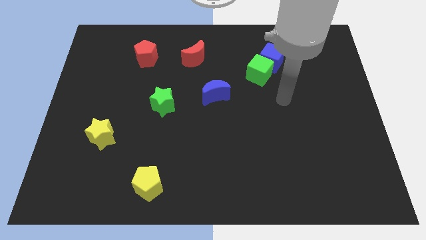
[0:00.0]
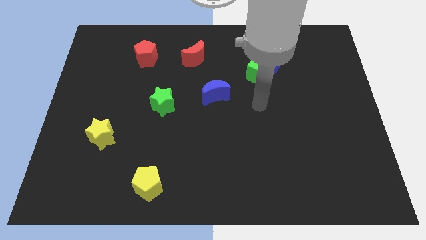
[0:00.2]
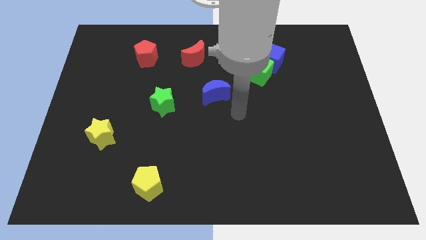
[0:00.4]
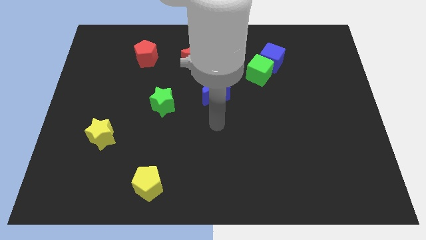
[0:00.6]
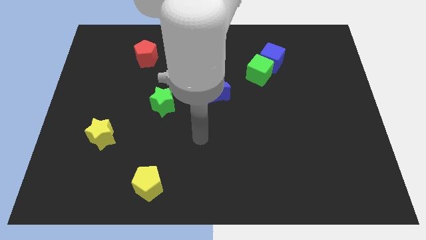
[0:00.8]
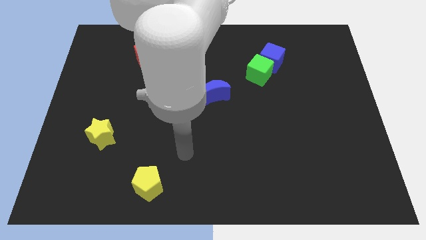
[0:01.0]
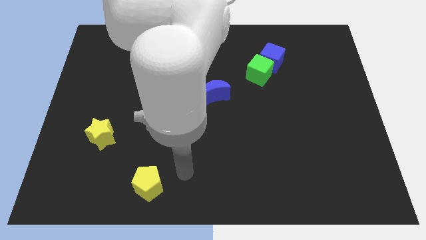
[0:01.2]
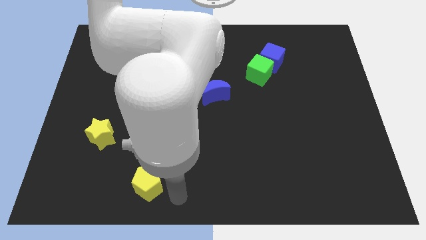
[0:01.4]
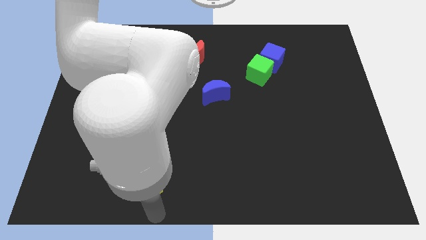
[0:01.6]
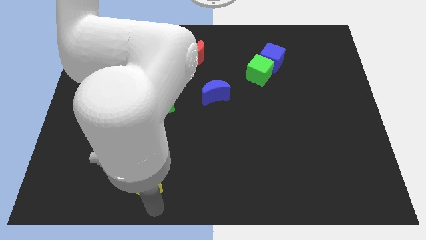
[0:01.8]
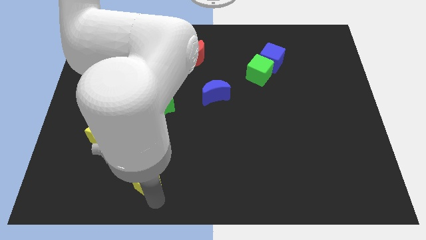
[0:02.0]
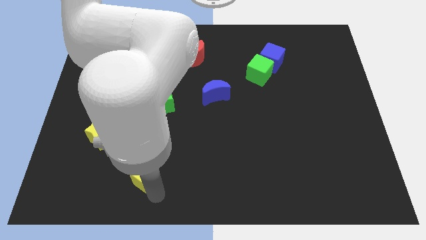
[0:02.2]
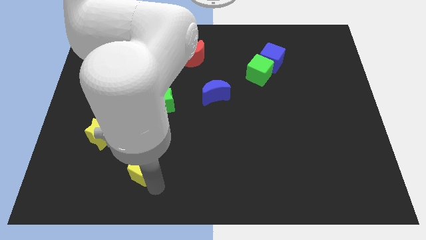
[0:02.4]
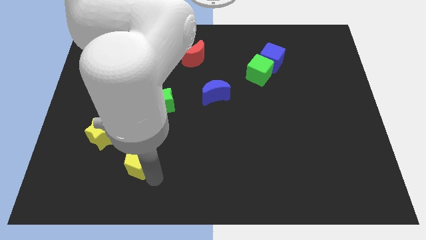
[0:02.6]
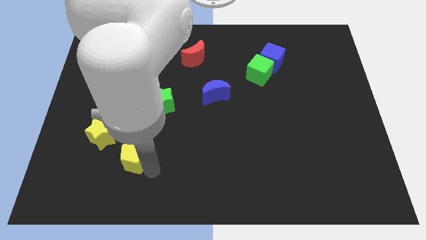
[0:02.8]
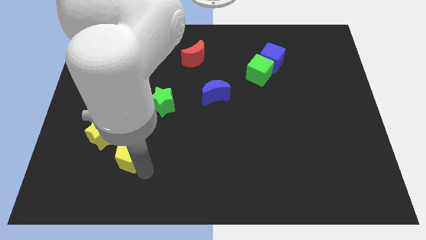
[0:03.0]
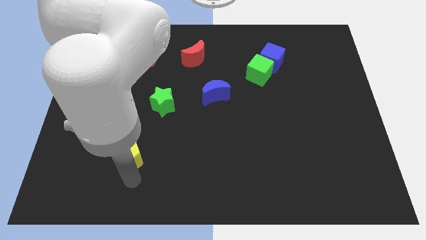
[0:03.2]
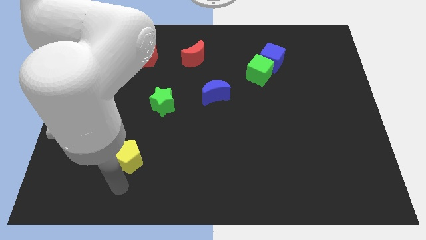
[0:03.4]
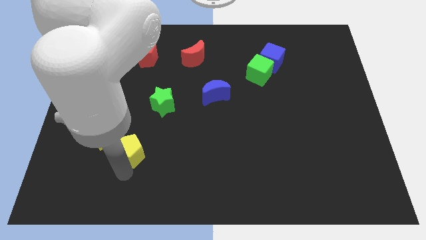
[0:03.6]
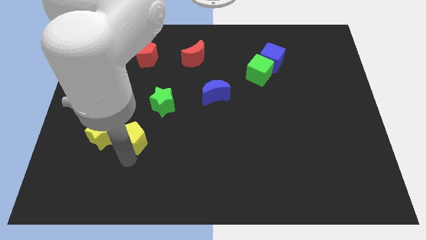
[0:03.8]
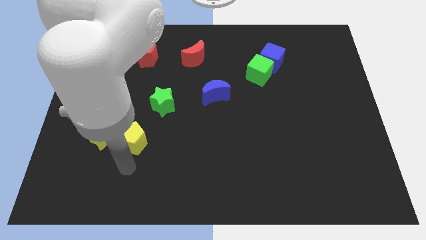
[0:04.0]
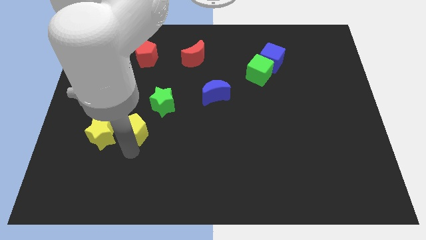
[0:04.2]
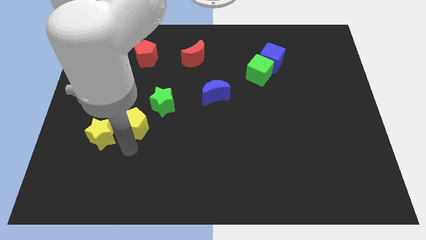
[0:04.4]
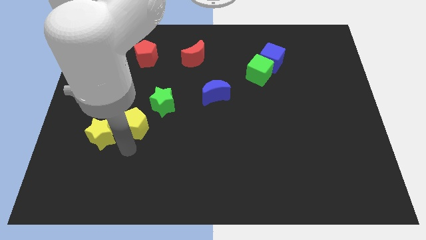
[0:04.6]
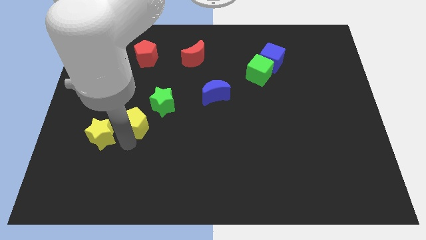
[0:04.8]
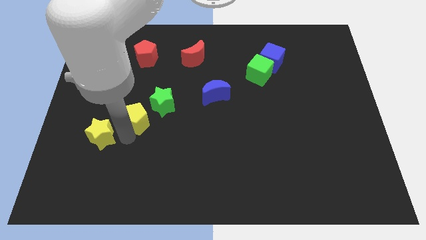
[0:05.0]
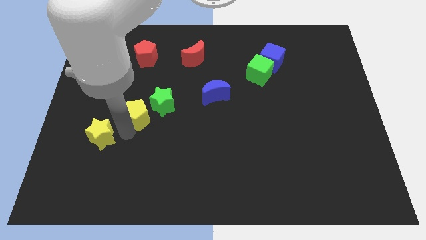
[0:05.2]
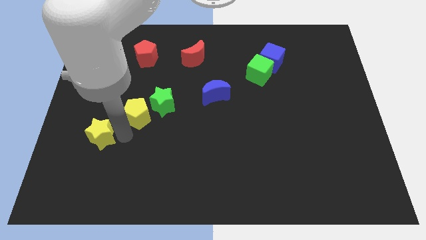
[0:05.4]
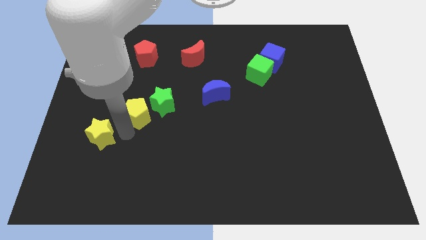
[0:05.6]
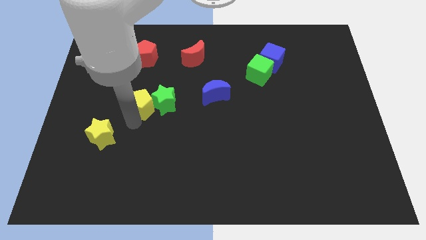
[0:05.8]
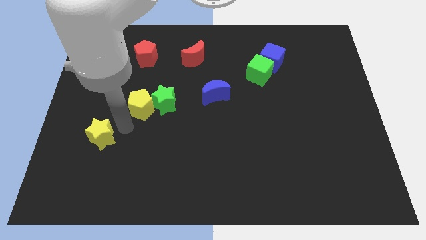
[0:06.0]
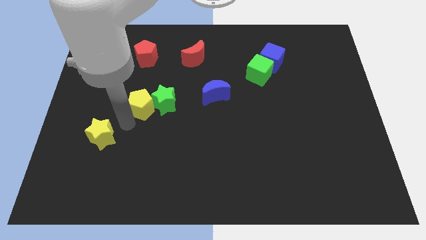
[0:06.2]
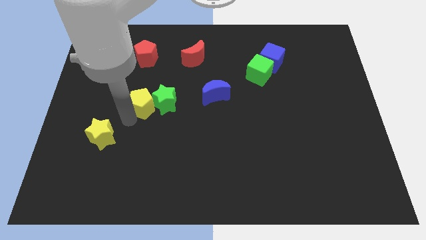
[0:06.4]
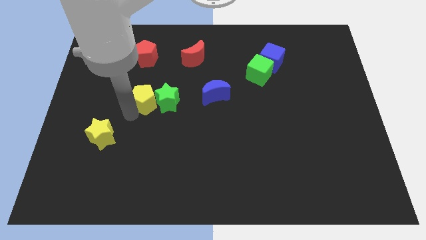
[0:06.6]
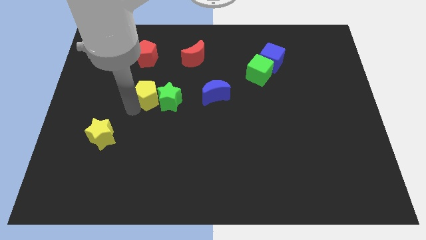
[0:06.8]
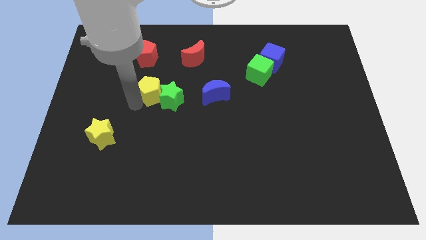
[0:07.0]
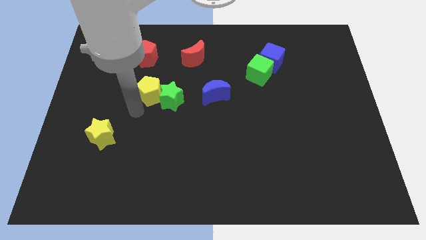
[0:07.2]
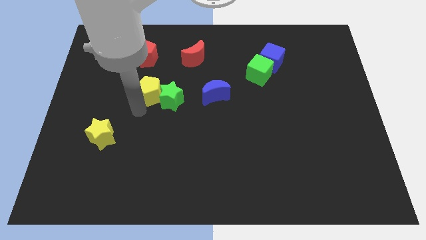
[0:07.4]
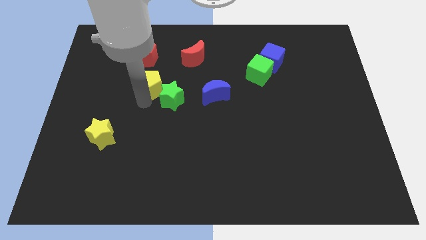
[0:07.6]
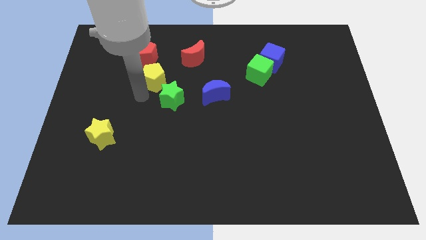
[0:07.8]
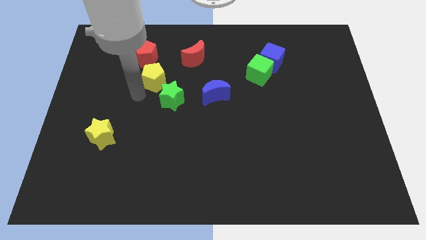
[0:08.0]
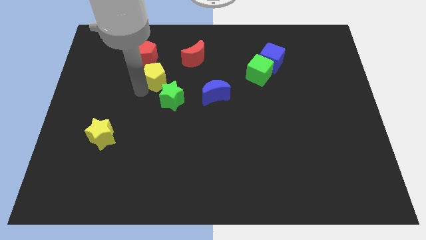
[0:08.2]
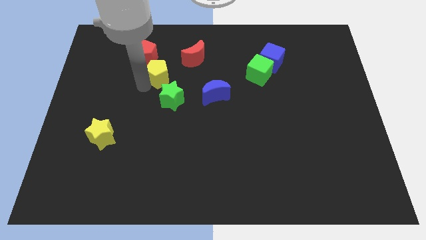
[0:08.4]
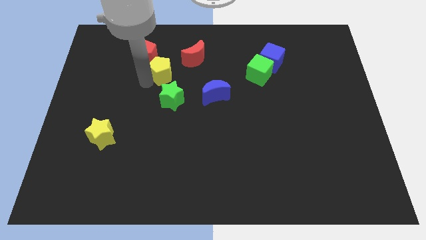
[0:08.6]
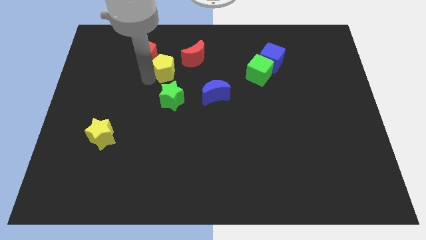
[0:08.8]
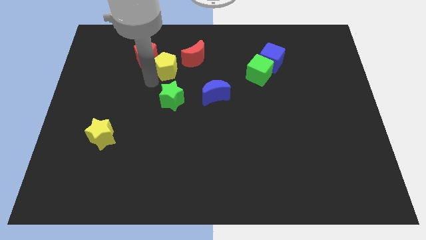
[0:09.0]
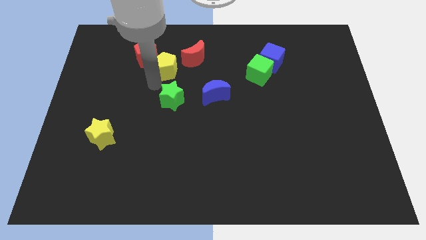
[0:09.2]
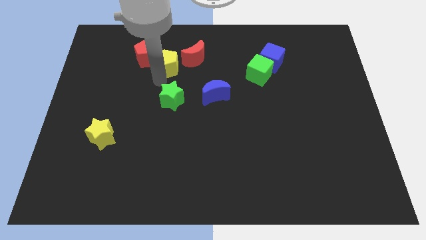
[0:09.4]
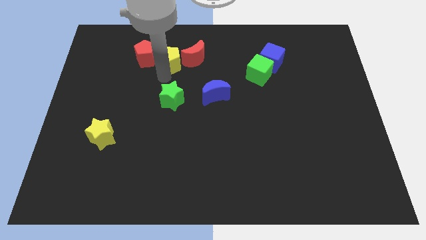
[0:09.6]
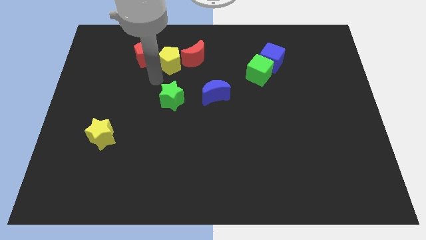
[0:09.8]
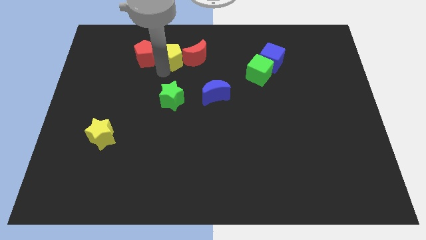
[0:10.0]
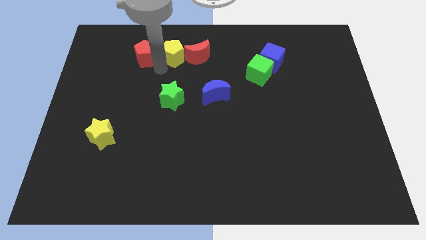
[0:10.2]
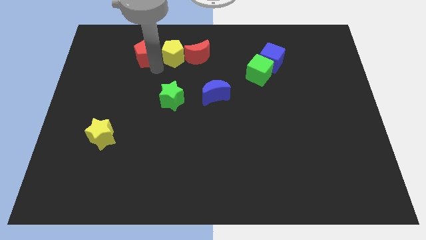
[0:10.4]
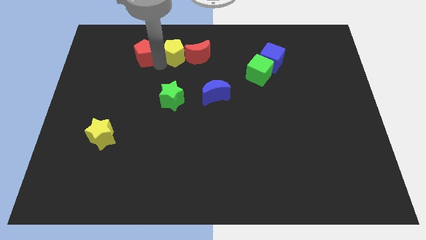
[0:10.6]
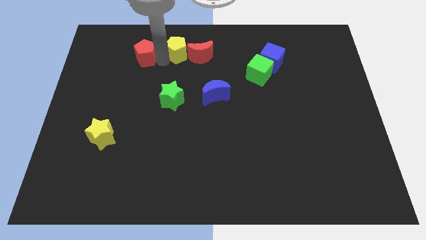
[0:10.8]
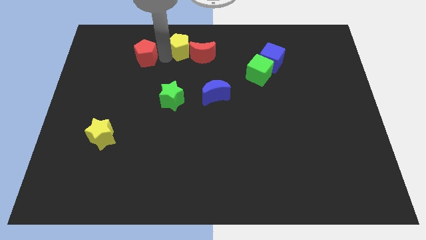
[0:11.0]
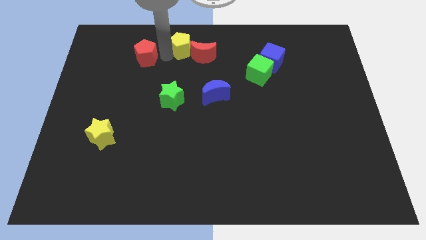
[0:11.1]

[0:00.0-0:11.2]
slide the yellow pentagon to the top
